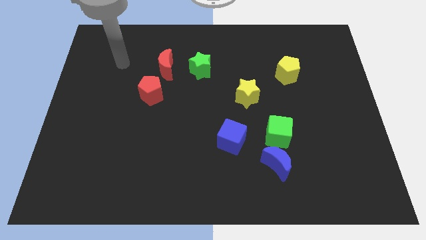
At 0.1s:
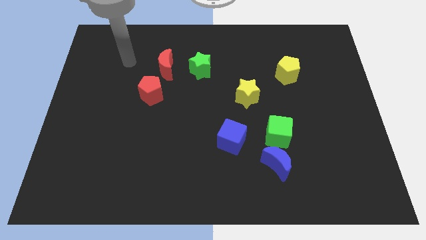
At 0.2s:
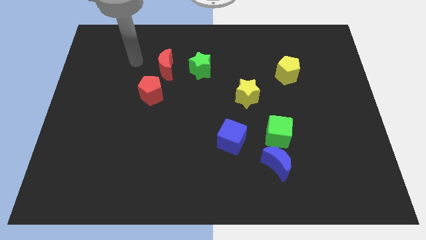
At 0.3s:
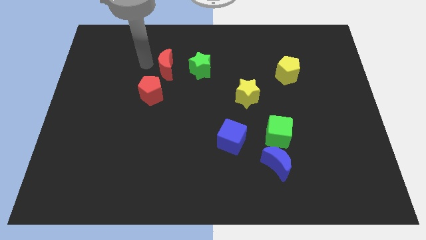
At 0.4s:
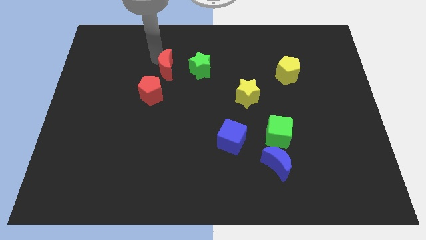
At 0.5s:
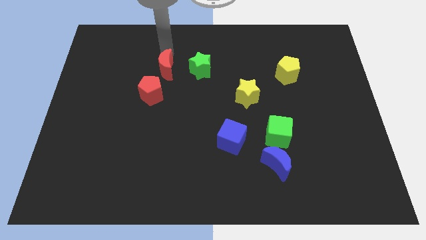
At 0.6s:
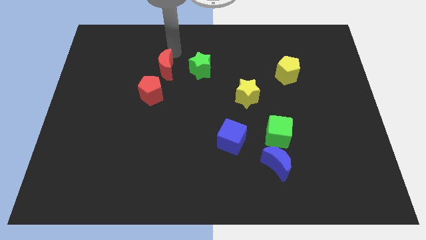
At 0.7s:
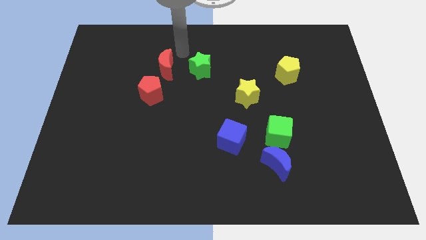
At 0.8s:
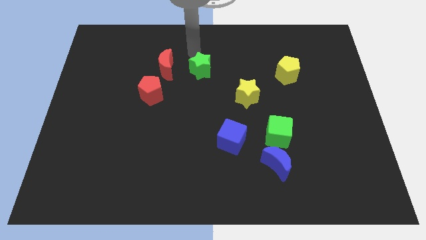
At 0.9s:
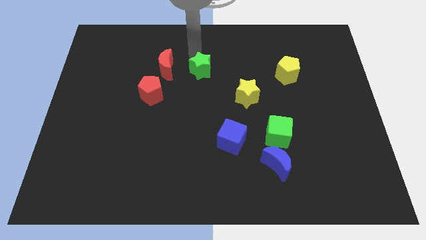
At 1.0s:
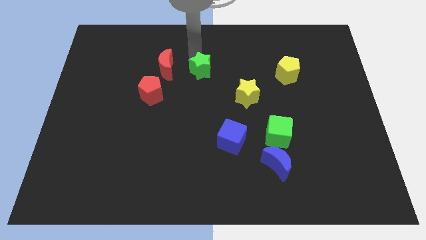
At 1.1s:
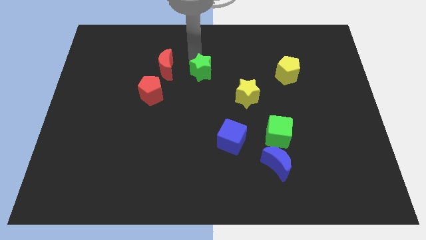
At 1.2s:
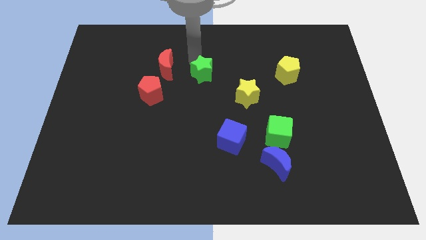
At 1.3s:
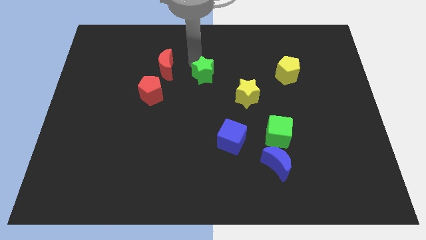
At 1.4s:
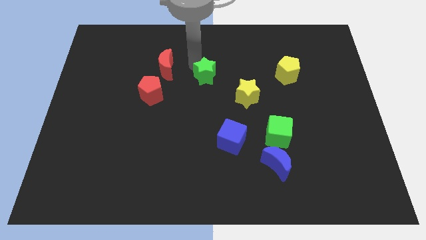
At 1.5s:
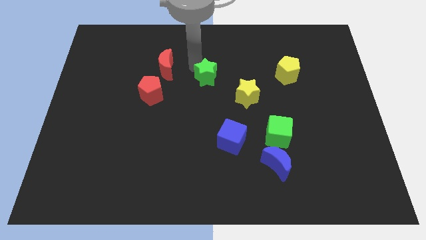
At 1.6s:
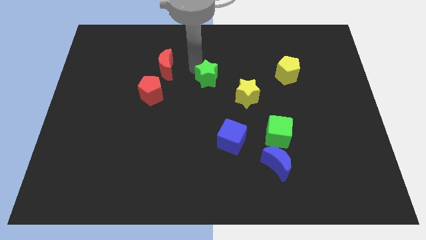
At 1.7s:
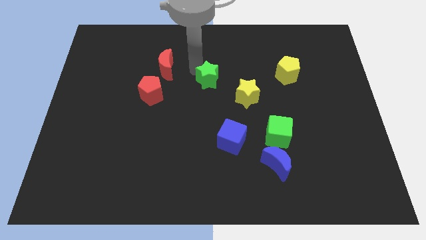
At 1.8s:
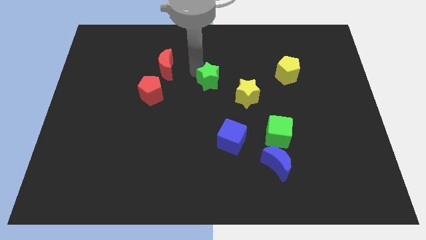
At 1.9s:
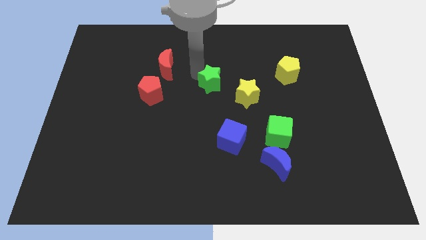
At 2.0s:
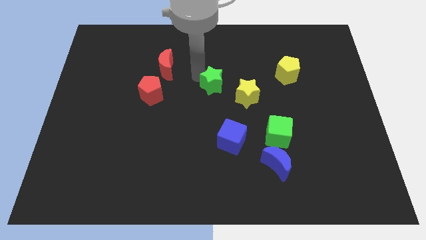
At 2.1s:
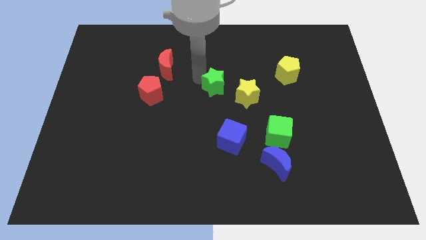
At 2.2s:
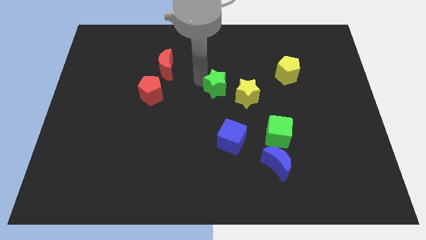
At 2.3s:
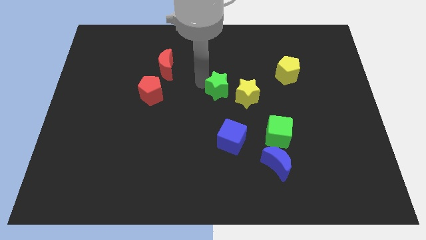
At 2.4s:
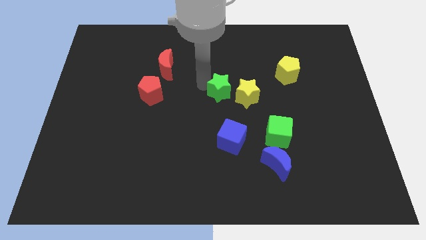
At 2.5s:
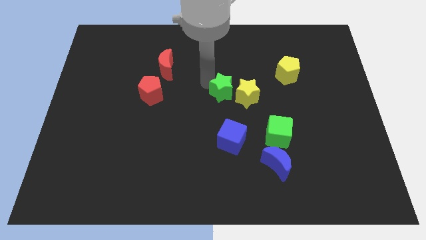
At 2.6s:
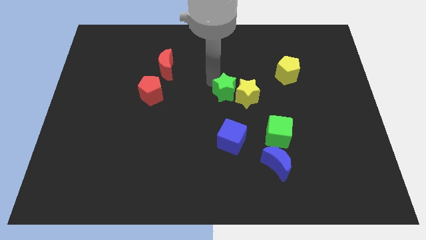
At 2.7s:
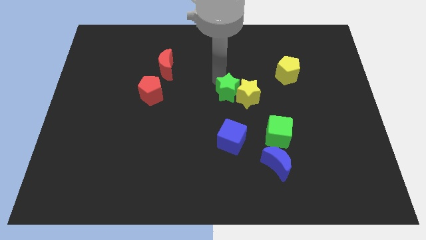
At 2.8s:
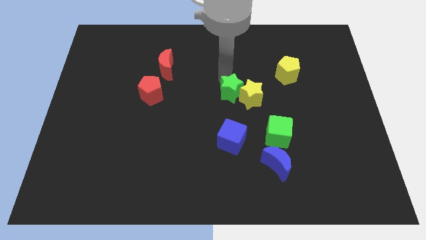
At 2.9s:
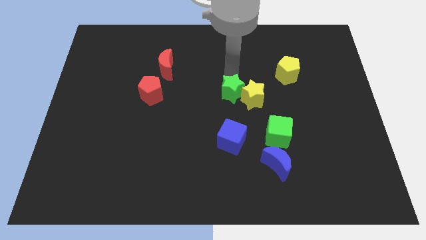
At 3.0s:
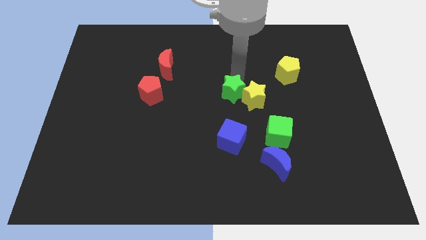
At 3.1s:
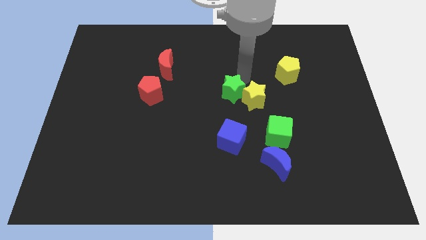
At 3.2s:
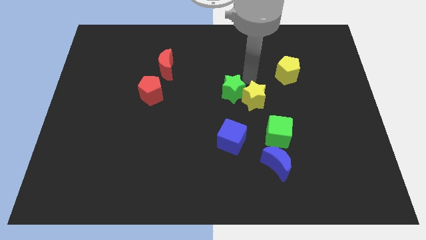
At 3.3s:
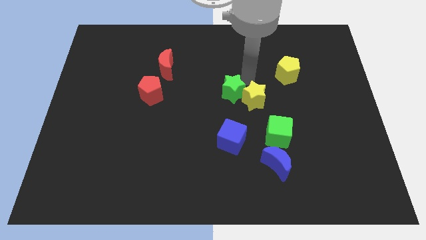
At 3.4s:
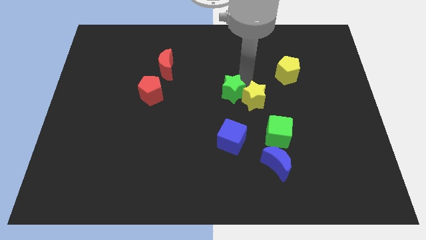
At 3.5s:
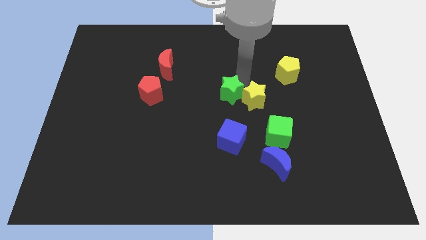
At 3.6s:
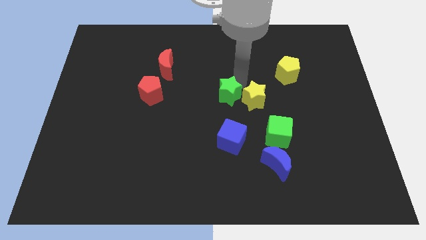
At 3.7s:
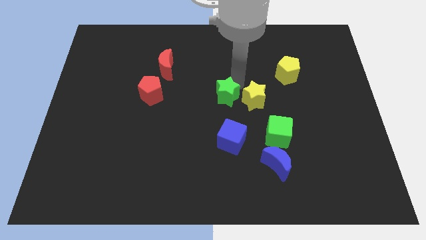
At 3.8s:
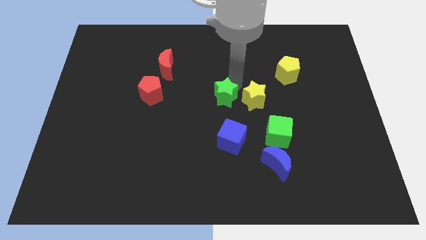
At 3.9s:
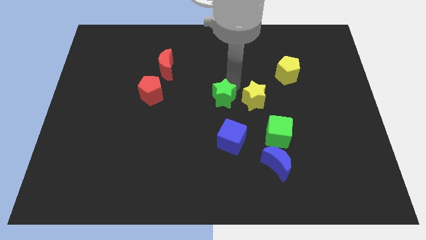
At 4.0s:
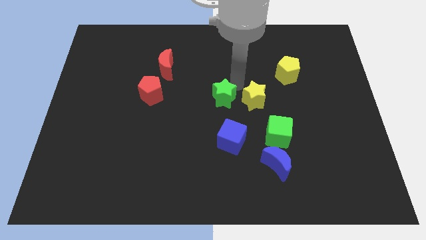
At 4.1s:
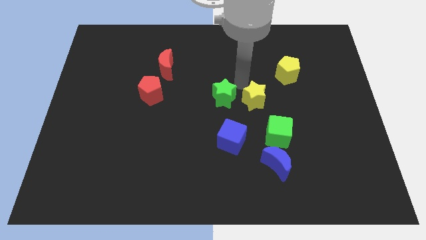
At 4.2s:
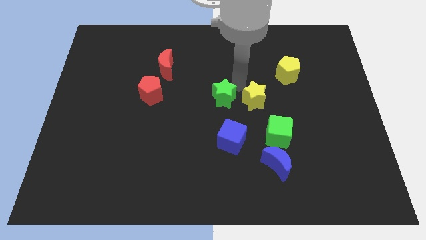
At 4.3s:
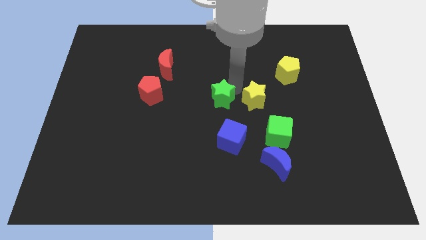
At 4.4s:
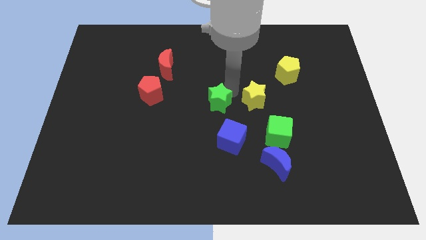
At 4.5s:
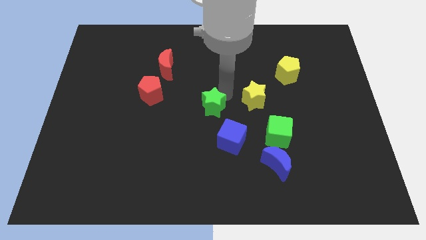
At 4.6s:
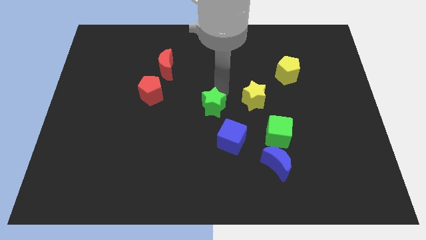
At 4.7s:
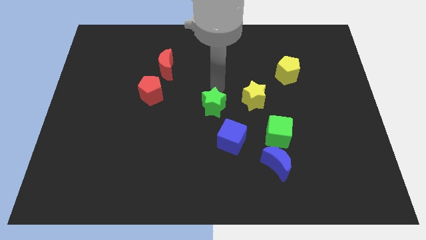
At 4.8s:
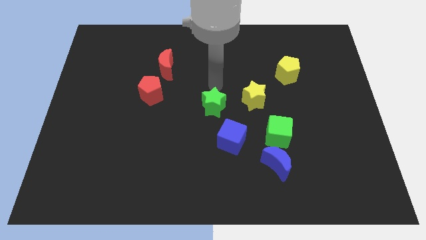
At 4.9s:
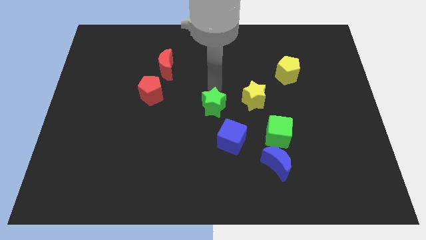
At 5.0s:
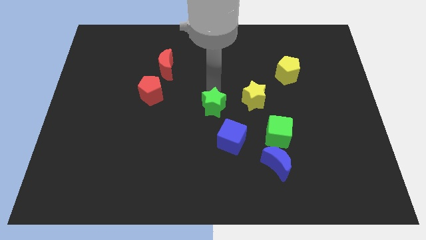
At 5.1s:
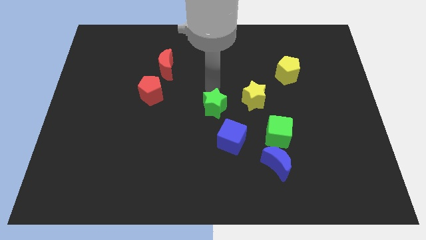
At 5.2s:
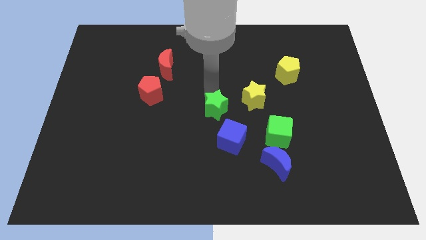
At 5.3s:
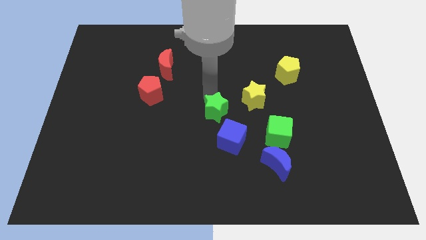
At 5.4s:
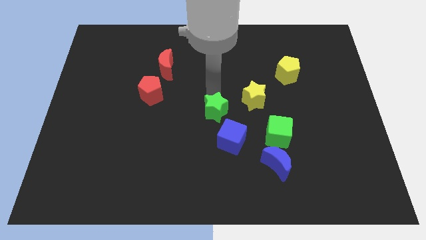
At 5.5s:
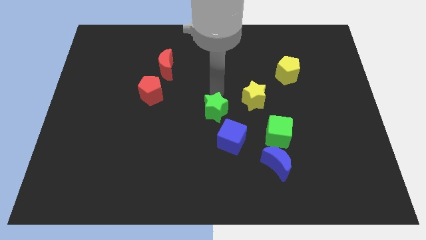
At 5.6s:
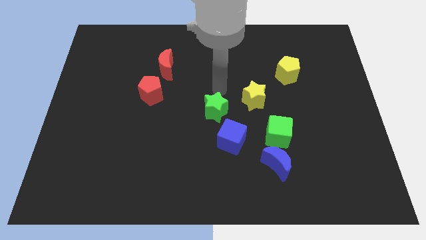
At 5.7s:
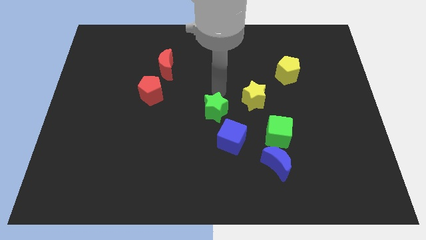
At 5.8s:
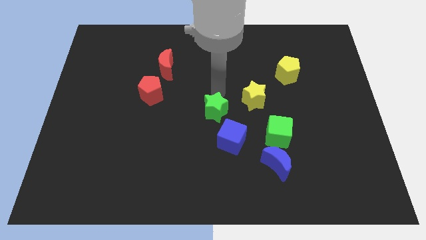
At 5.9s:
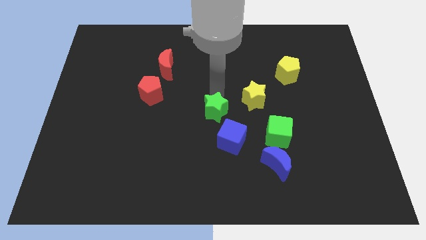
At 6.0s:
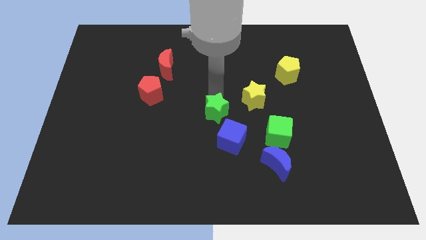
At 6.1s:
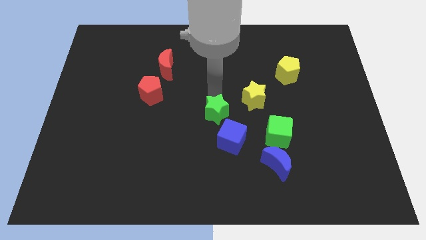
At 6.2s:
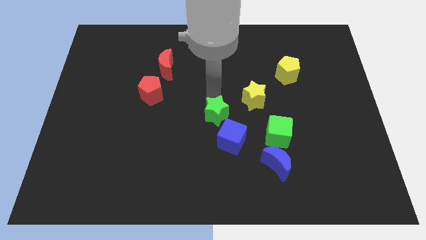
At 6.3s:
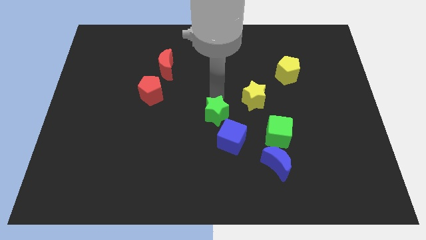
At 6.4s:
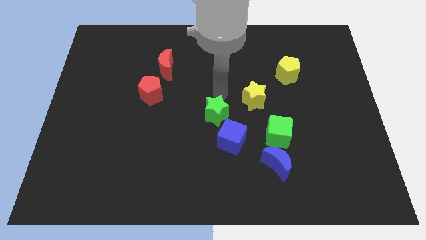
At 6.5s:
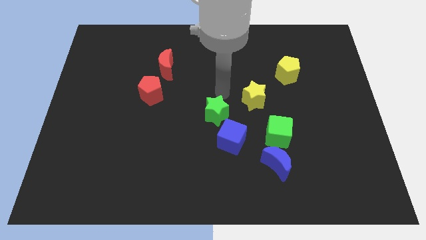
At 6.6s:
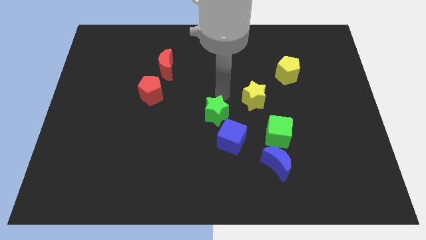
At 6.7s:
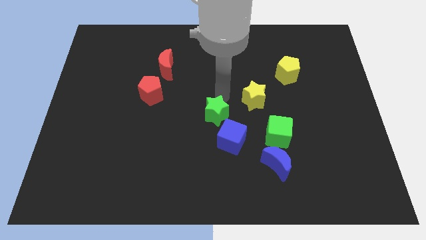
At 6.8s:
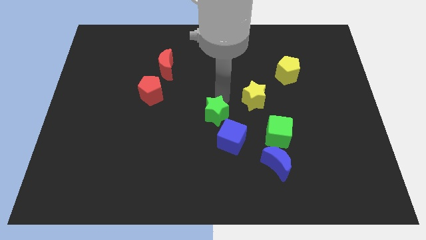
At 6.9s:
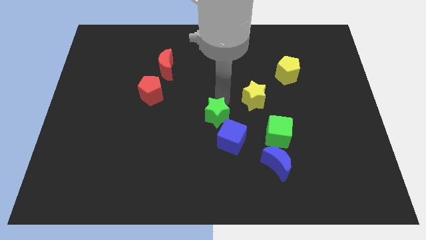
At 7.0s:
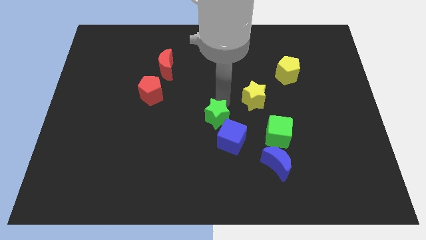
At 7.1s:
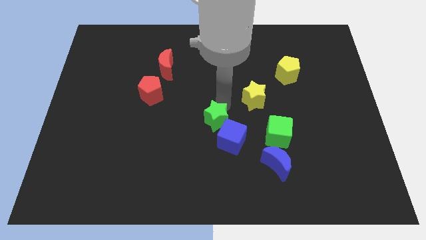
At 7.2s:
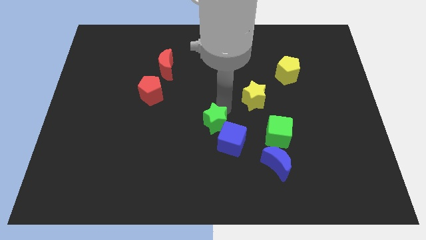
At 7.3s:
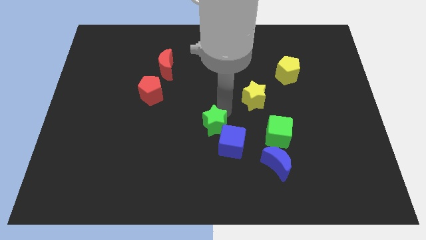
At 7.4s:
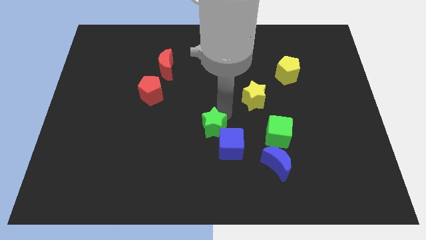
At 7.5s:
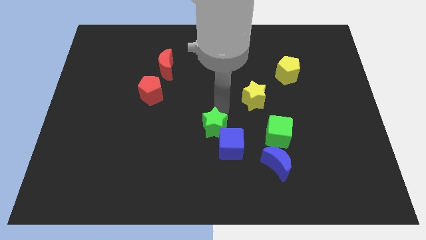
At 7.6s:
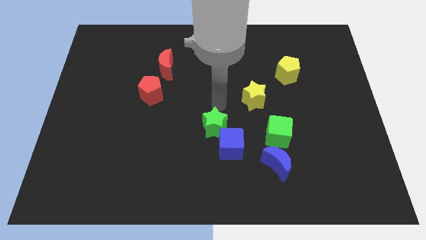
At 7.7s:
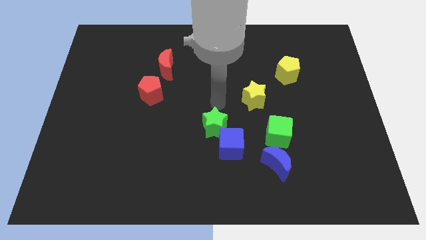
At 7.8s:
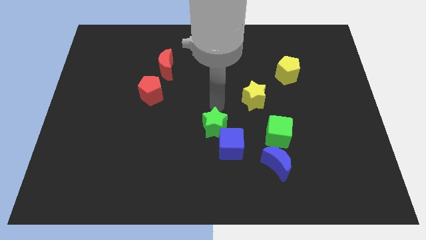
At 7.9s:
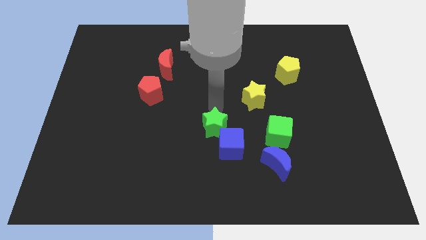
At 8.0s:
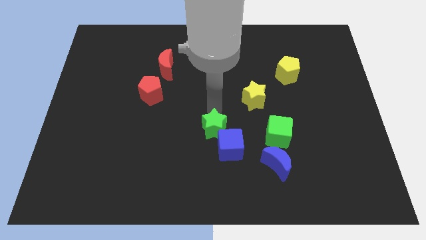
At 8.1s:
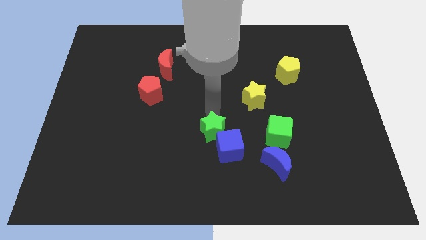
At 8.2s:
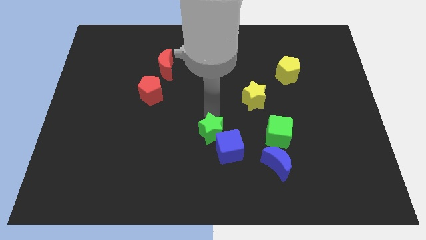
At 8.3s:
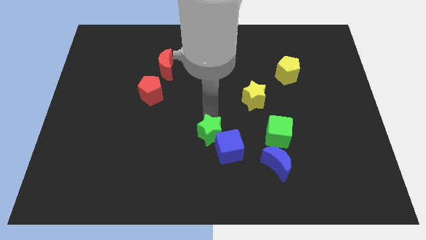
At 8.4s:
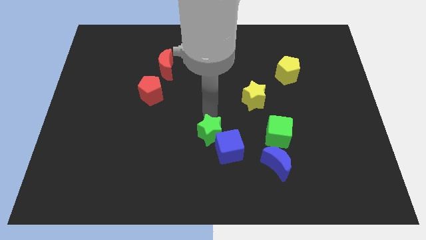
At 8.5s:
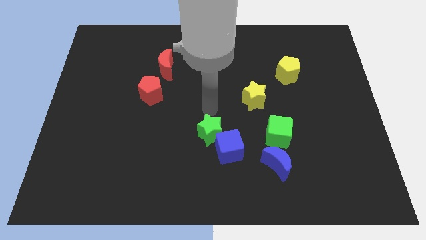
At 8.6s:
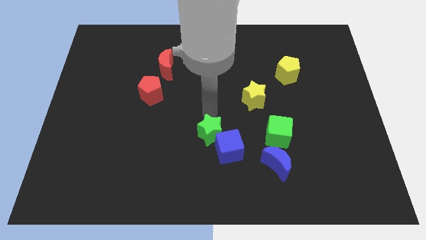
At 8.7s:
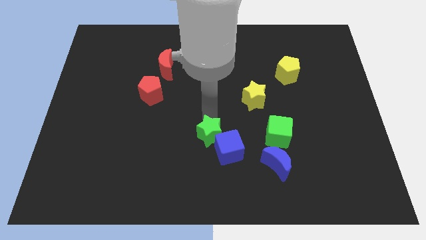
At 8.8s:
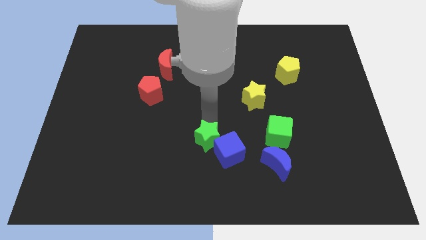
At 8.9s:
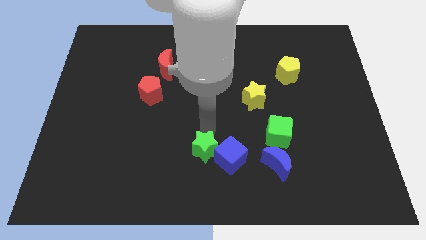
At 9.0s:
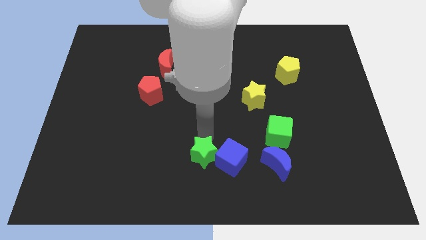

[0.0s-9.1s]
push the green star to the bottom
